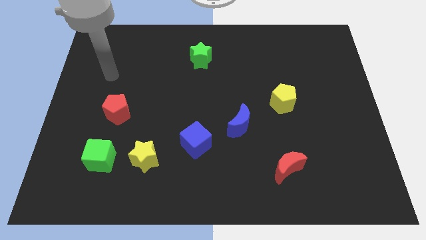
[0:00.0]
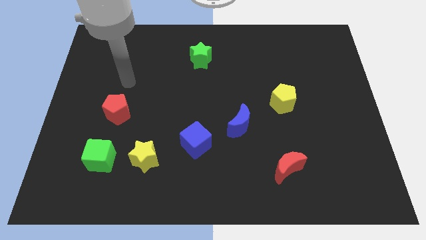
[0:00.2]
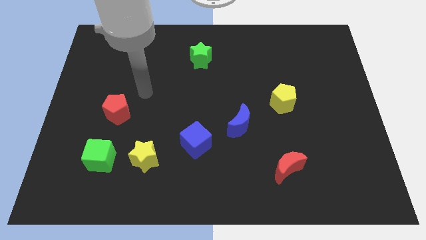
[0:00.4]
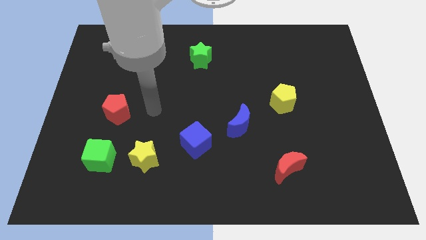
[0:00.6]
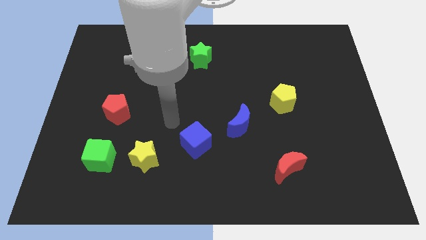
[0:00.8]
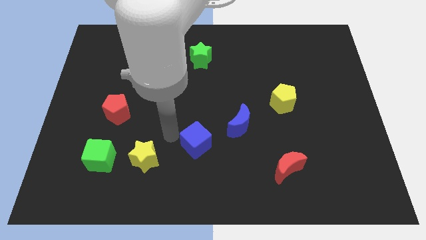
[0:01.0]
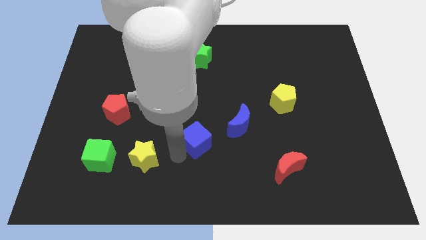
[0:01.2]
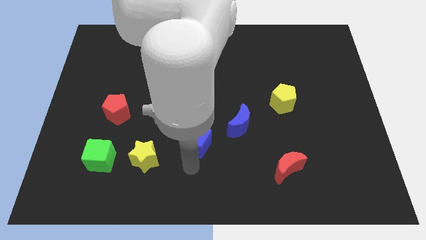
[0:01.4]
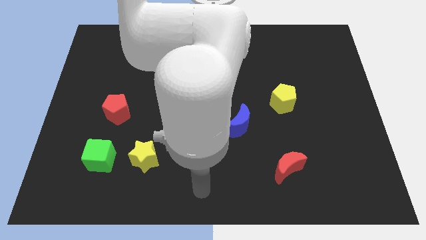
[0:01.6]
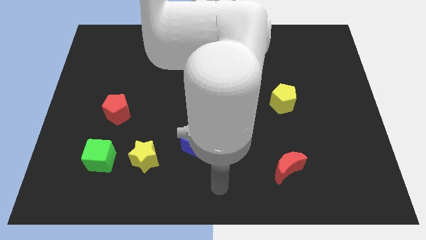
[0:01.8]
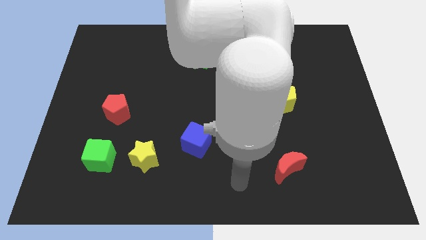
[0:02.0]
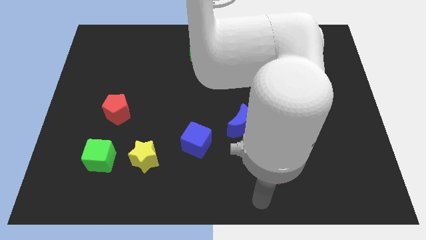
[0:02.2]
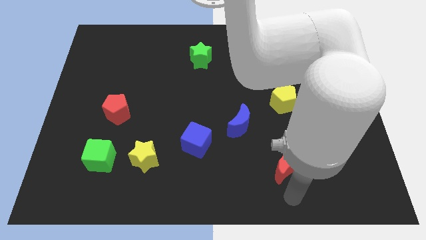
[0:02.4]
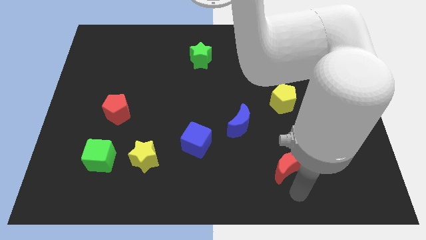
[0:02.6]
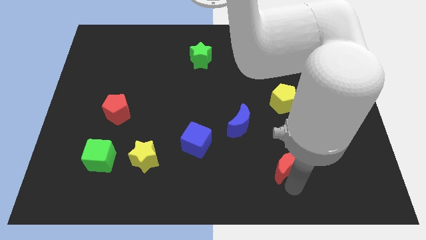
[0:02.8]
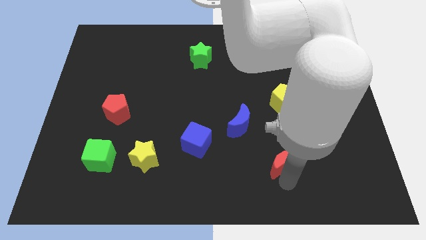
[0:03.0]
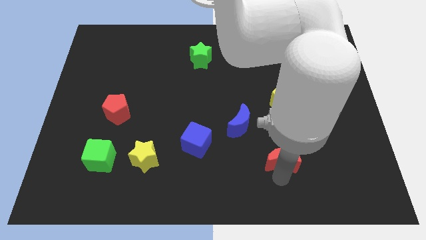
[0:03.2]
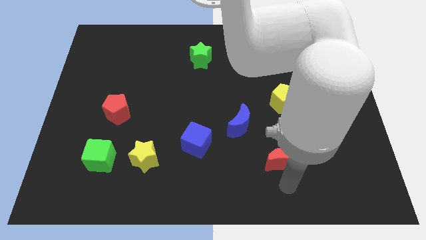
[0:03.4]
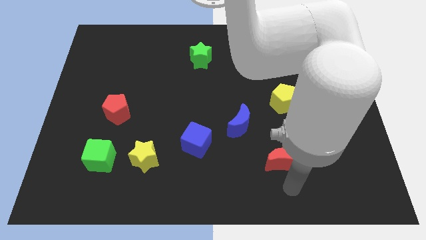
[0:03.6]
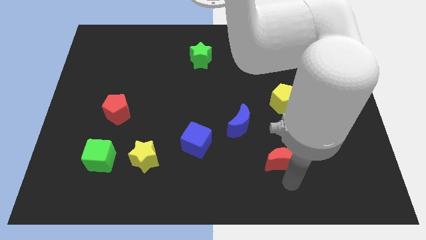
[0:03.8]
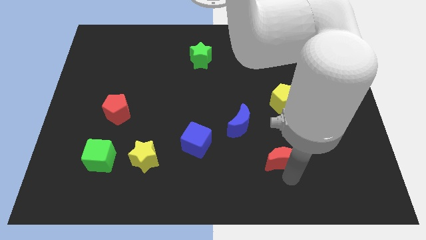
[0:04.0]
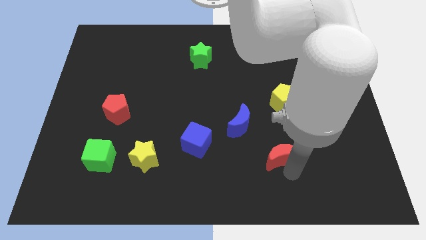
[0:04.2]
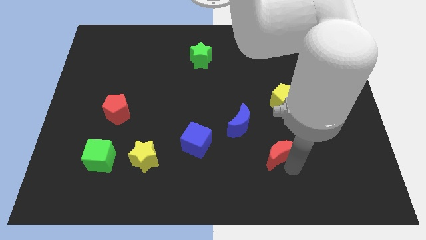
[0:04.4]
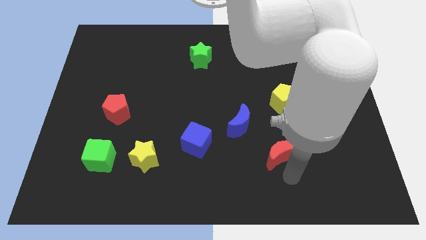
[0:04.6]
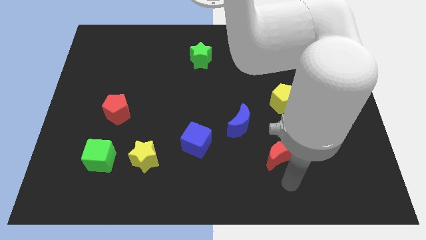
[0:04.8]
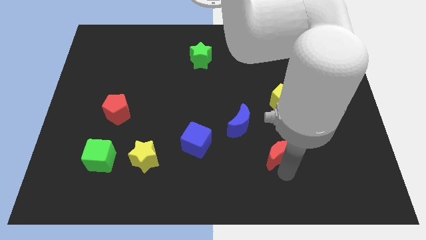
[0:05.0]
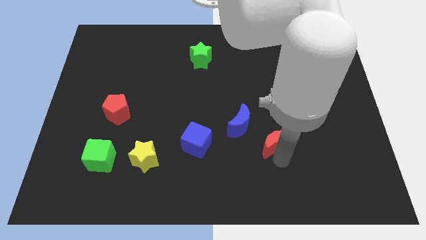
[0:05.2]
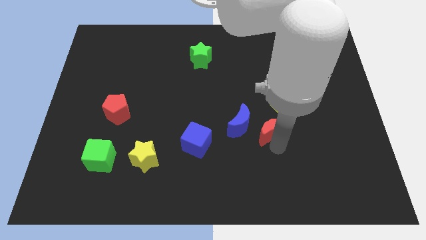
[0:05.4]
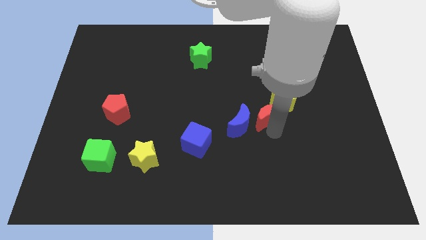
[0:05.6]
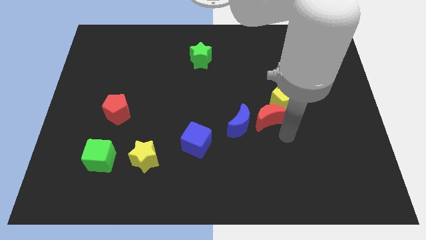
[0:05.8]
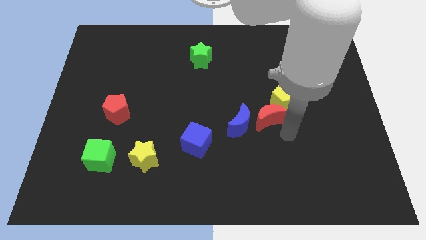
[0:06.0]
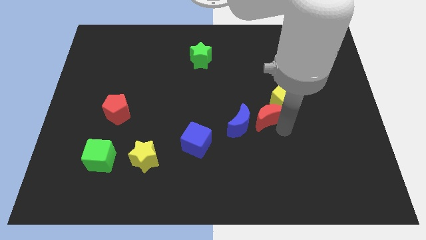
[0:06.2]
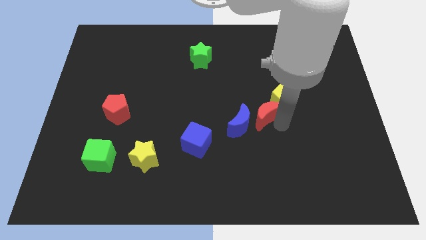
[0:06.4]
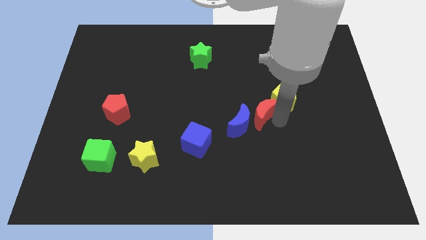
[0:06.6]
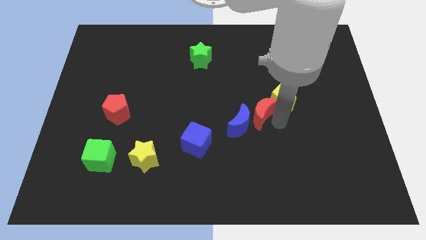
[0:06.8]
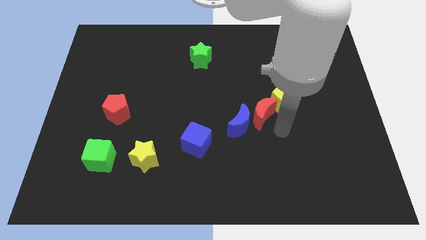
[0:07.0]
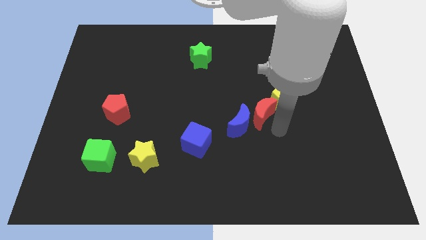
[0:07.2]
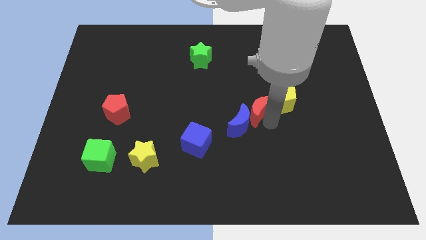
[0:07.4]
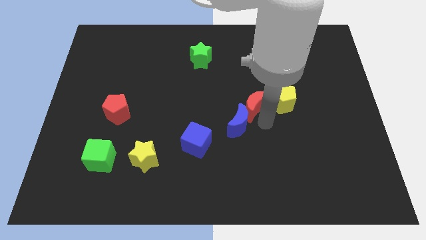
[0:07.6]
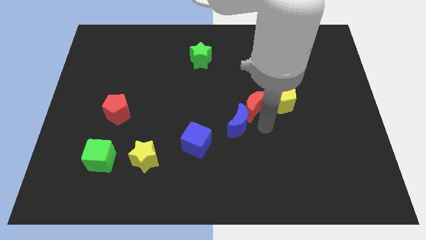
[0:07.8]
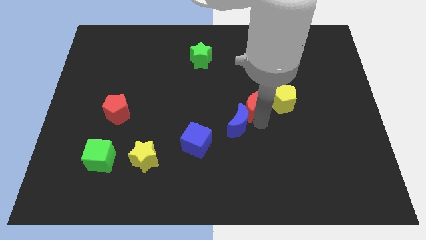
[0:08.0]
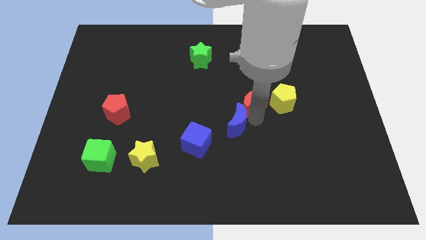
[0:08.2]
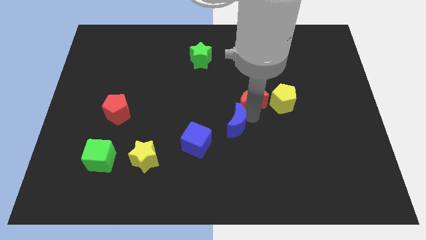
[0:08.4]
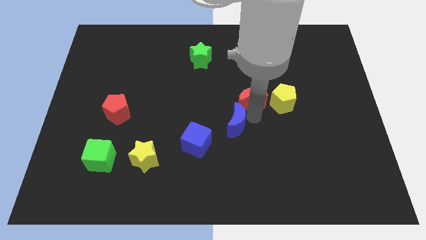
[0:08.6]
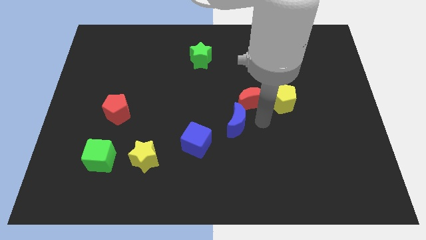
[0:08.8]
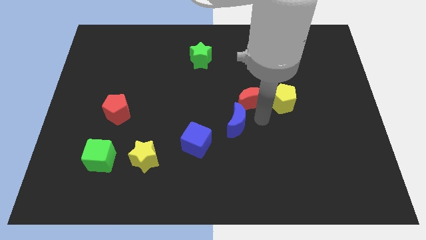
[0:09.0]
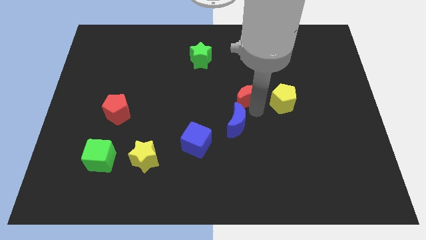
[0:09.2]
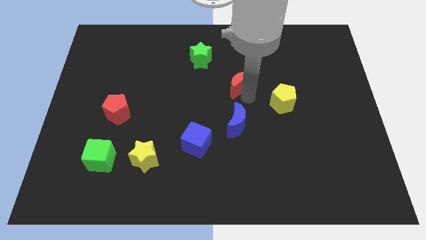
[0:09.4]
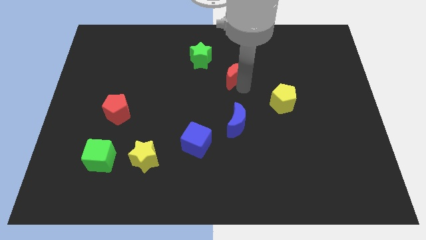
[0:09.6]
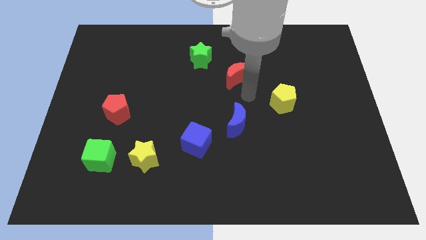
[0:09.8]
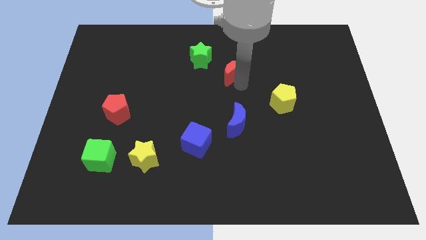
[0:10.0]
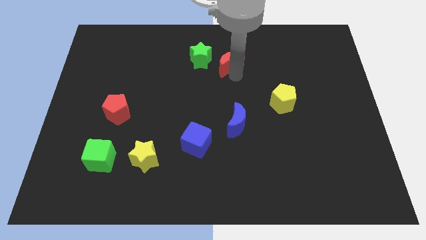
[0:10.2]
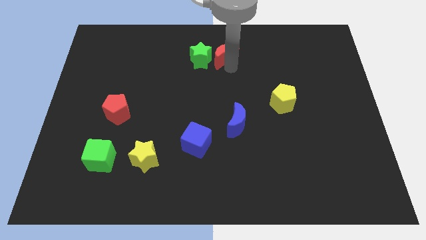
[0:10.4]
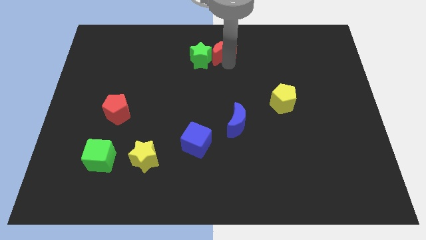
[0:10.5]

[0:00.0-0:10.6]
push the red moon to the top side

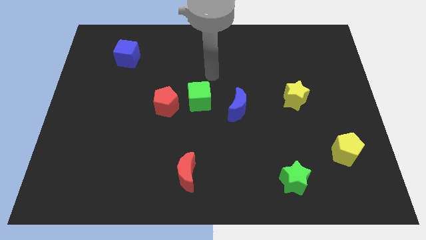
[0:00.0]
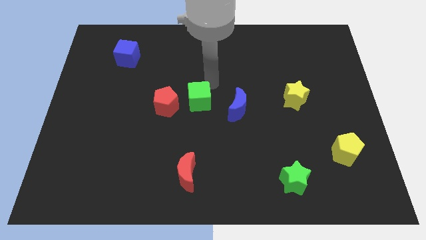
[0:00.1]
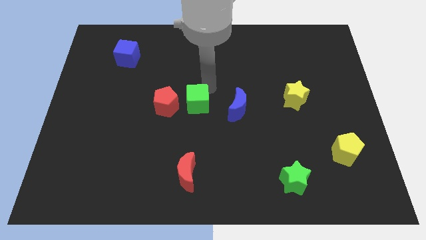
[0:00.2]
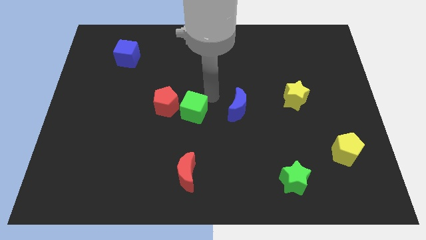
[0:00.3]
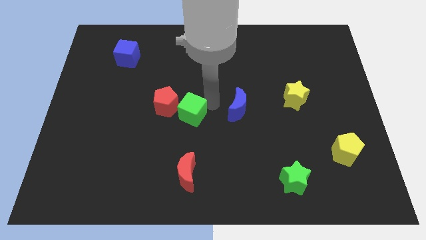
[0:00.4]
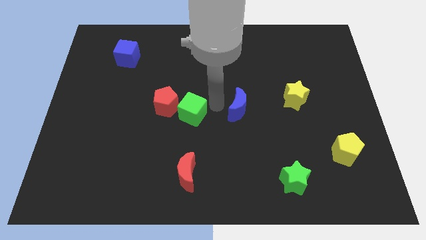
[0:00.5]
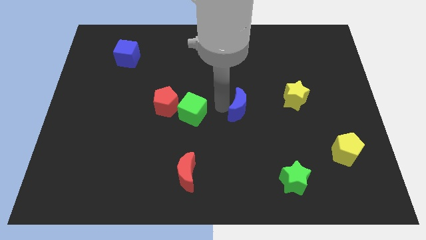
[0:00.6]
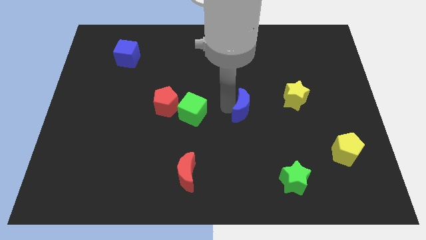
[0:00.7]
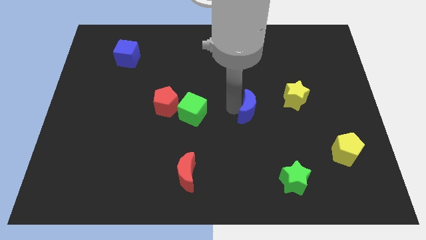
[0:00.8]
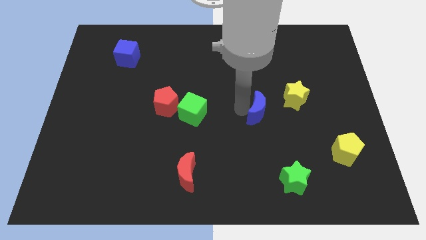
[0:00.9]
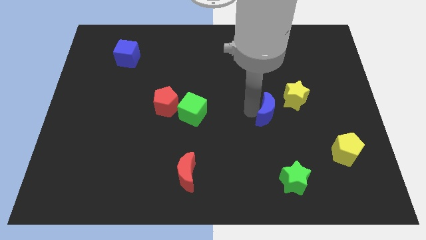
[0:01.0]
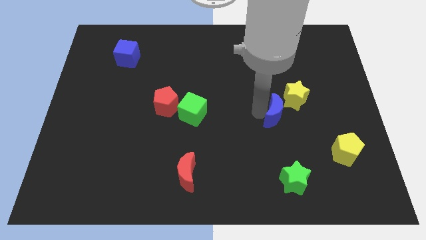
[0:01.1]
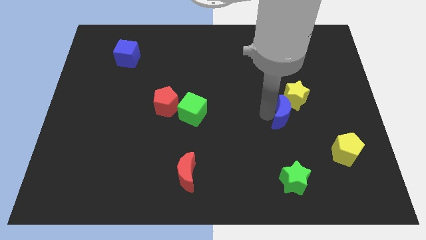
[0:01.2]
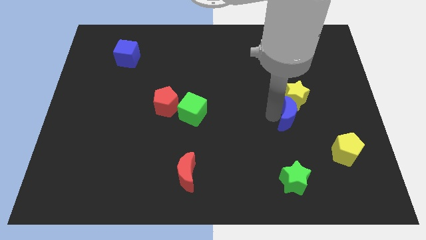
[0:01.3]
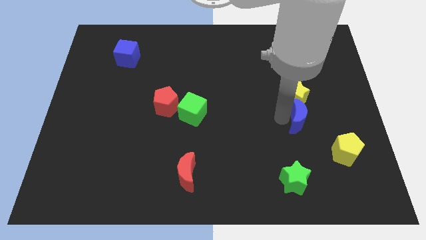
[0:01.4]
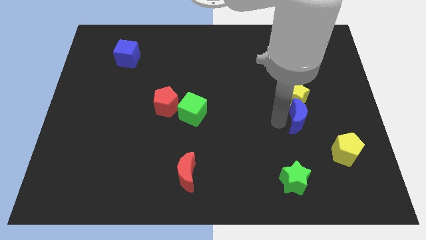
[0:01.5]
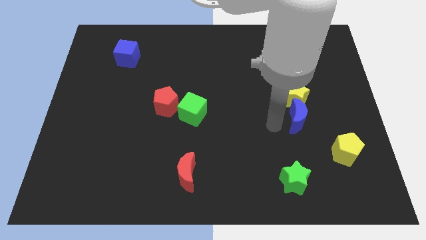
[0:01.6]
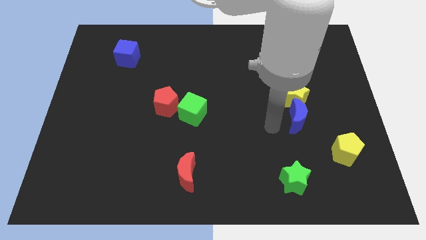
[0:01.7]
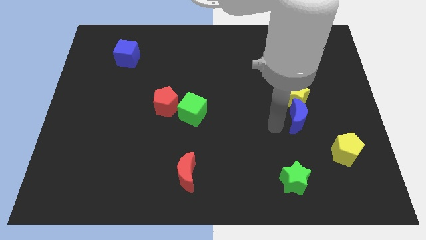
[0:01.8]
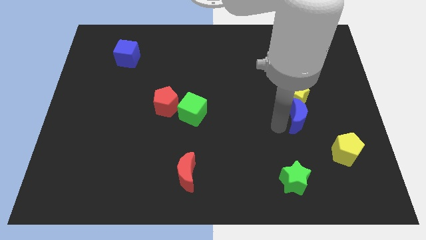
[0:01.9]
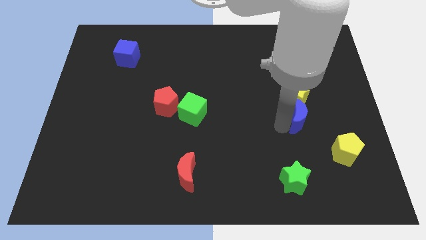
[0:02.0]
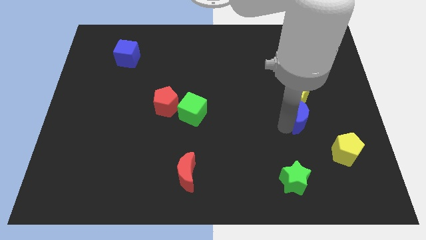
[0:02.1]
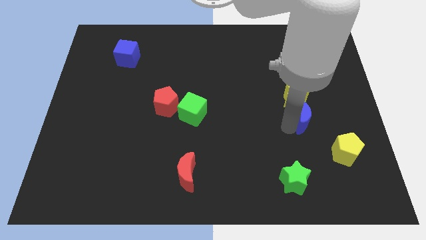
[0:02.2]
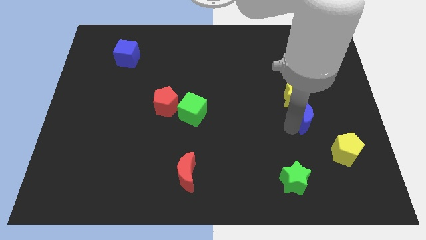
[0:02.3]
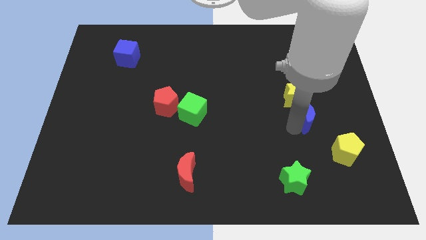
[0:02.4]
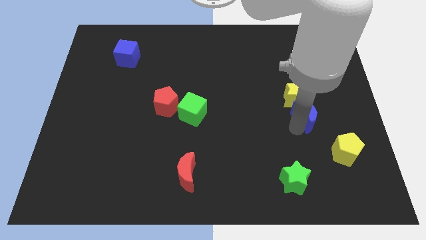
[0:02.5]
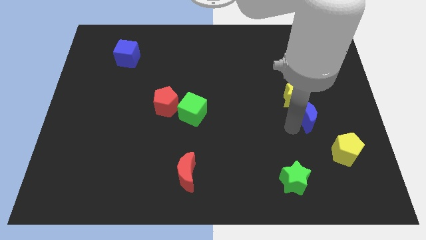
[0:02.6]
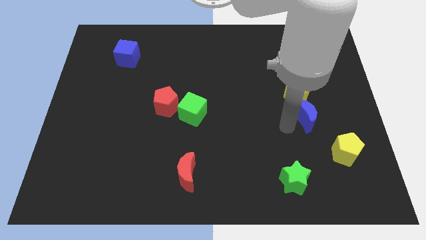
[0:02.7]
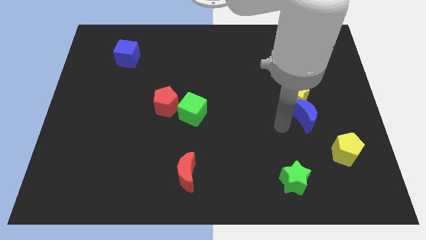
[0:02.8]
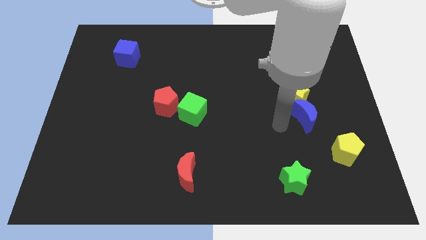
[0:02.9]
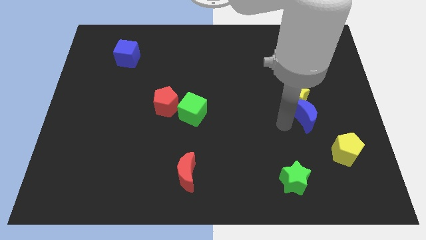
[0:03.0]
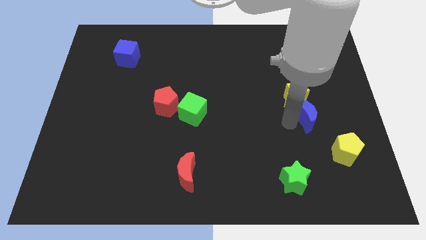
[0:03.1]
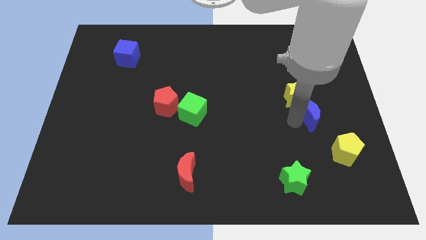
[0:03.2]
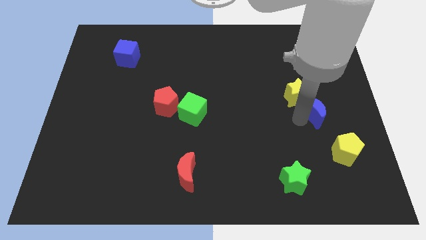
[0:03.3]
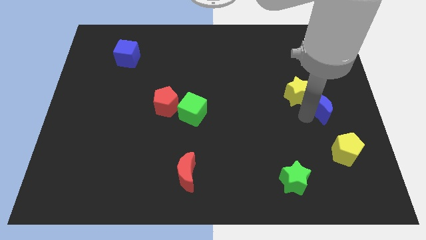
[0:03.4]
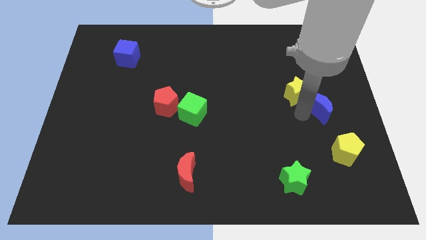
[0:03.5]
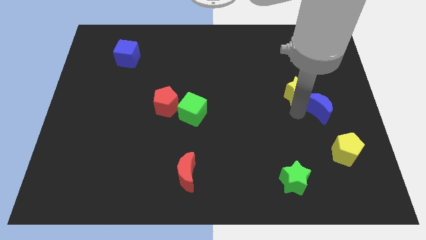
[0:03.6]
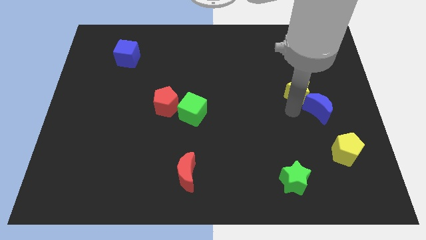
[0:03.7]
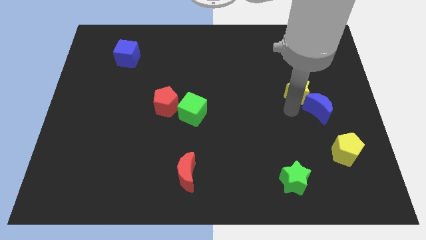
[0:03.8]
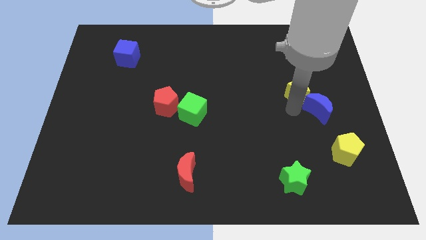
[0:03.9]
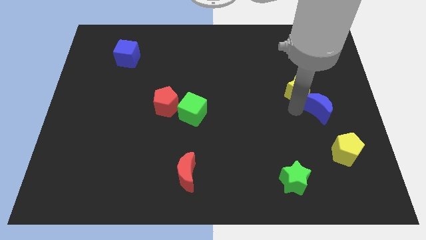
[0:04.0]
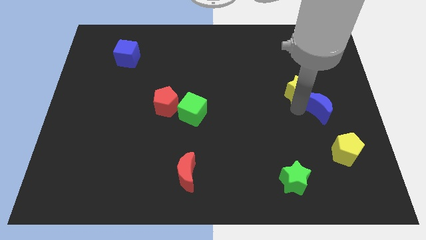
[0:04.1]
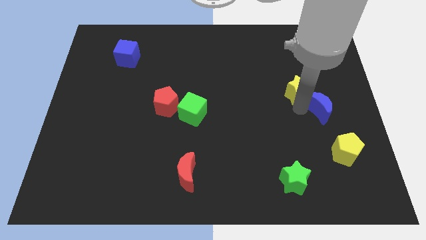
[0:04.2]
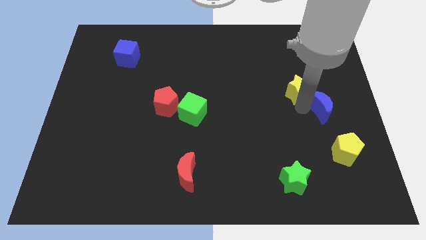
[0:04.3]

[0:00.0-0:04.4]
push the blue moon to the right side of the board
